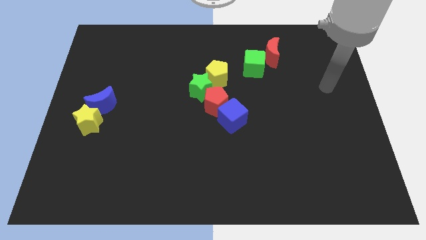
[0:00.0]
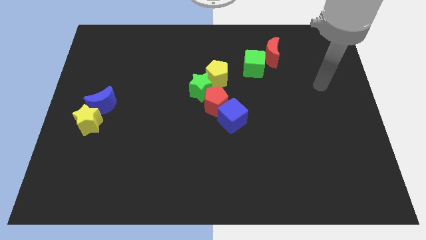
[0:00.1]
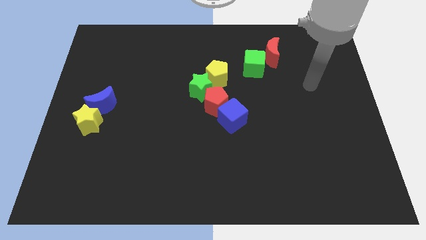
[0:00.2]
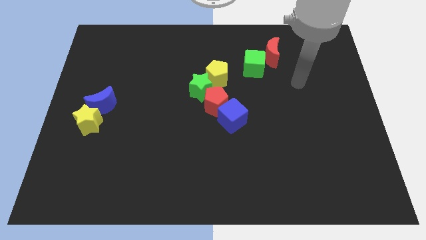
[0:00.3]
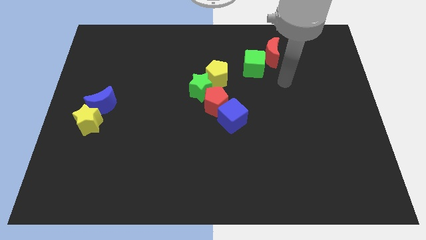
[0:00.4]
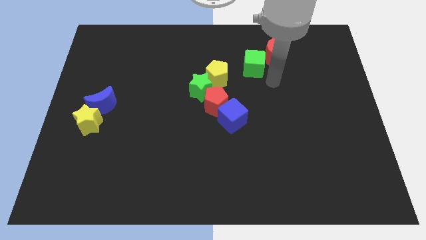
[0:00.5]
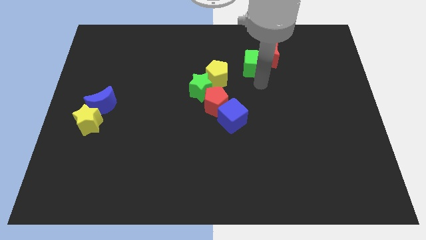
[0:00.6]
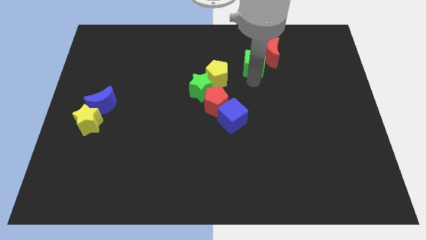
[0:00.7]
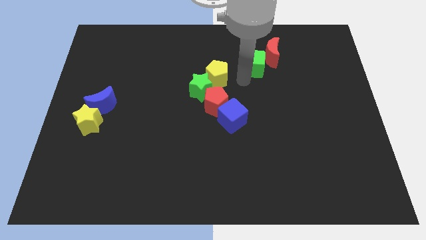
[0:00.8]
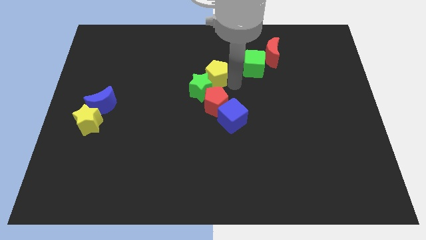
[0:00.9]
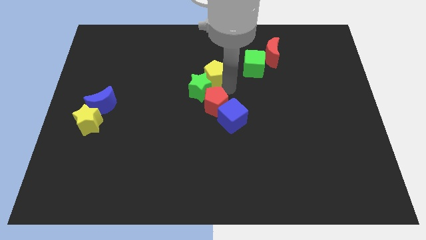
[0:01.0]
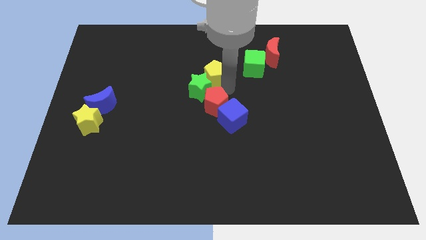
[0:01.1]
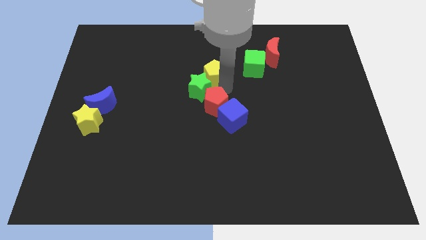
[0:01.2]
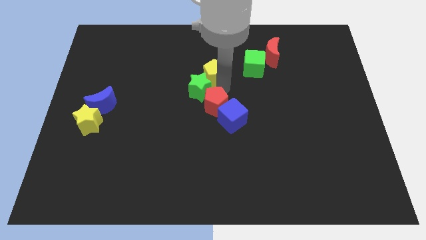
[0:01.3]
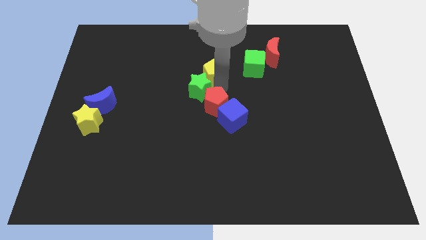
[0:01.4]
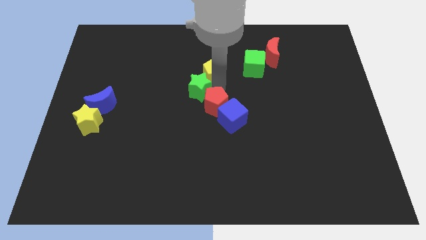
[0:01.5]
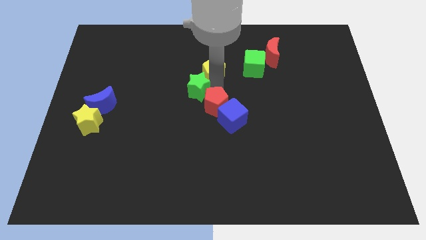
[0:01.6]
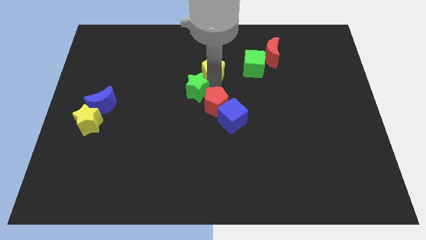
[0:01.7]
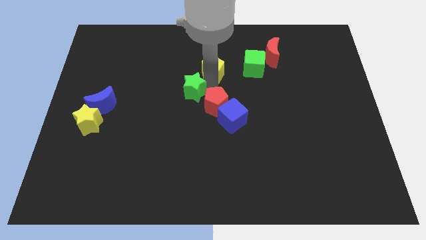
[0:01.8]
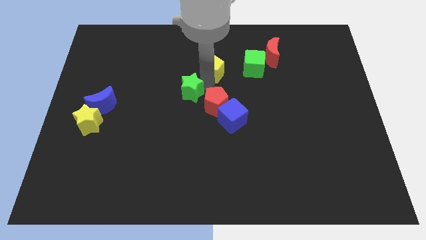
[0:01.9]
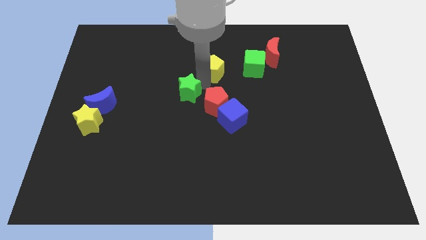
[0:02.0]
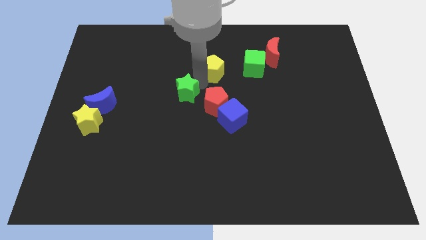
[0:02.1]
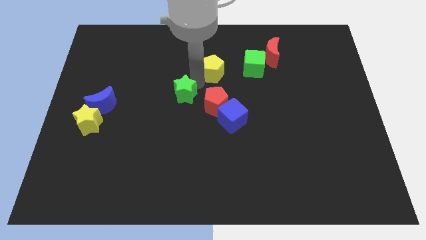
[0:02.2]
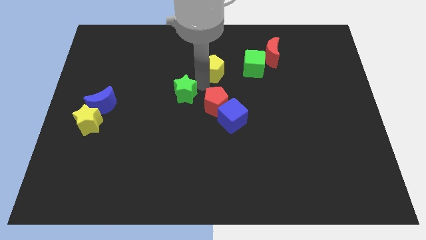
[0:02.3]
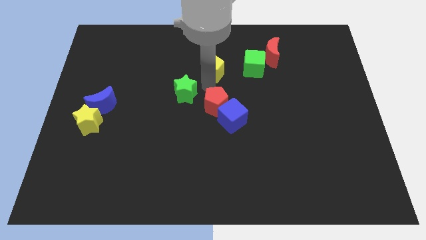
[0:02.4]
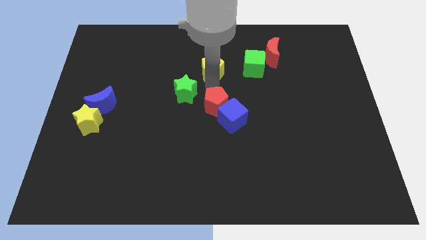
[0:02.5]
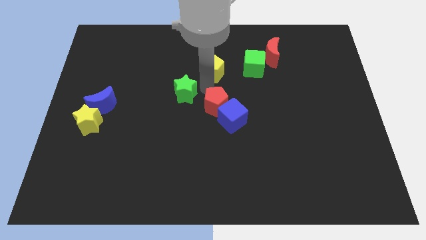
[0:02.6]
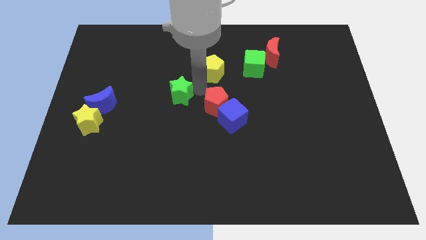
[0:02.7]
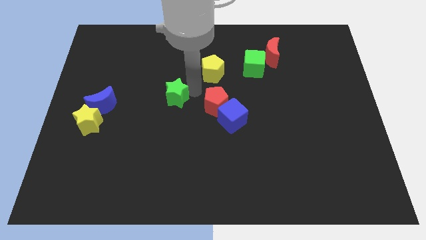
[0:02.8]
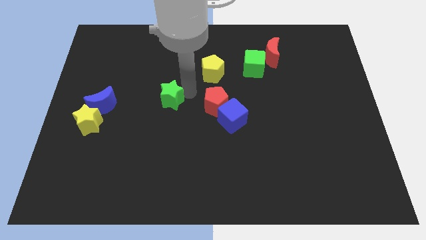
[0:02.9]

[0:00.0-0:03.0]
separate the green star from the red pentagon and yellow pentagon

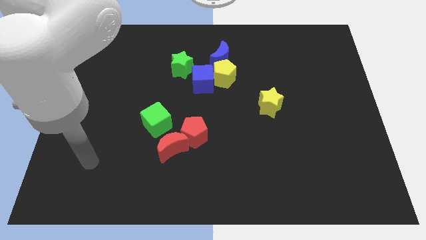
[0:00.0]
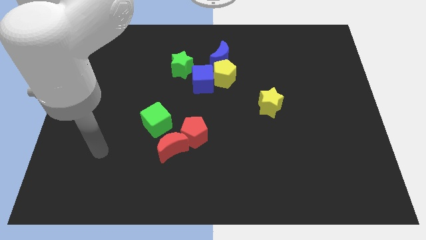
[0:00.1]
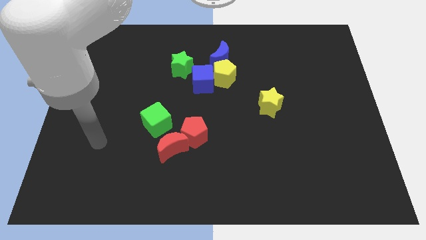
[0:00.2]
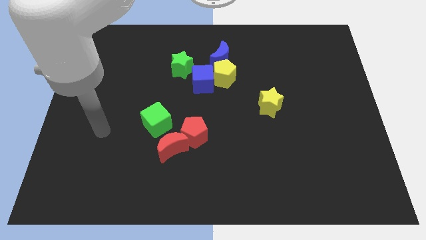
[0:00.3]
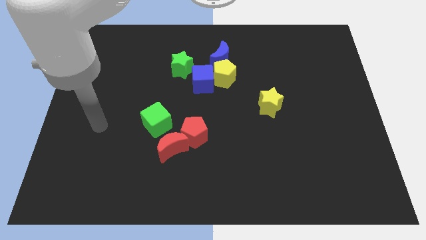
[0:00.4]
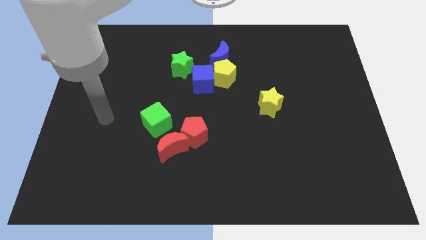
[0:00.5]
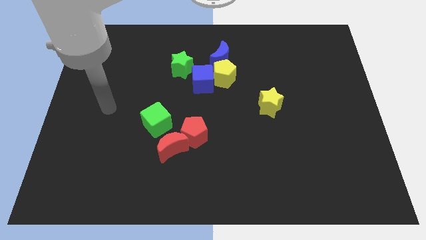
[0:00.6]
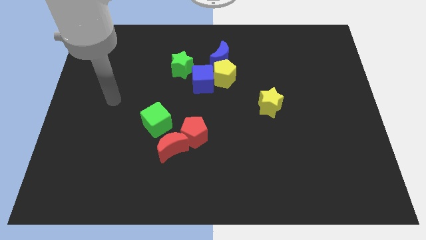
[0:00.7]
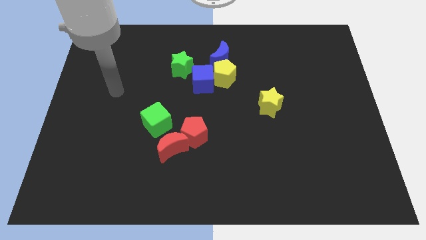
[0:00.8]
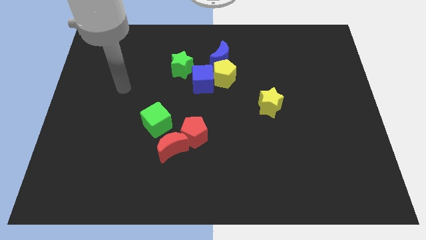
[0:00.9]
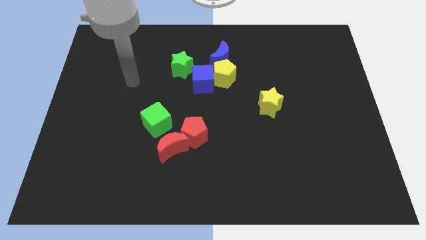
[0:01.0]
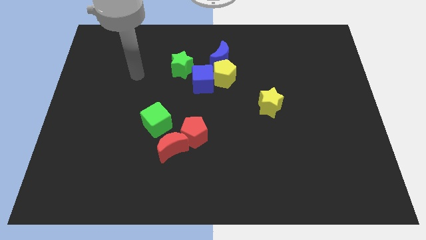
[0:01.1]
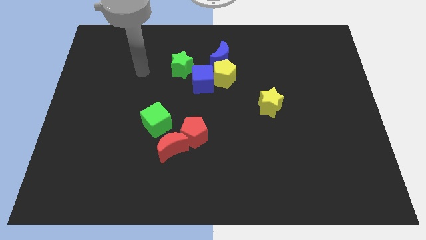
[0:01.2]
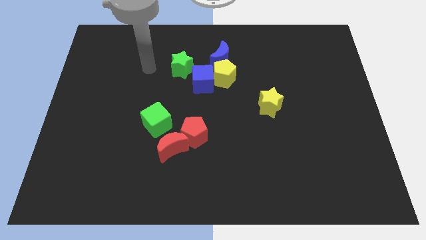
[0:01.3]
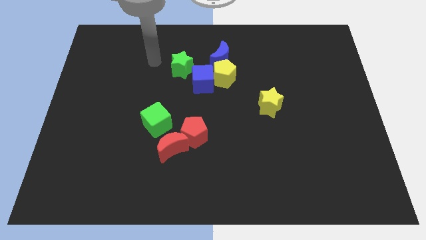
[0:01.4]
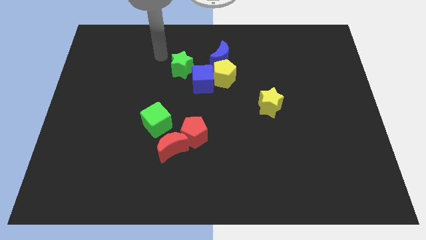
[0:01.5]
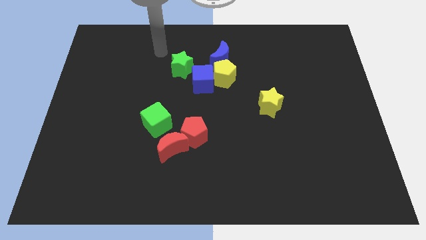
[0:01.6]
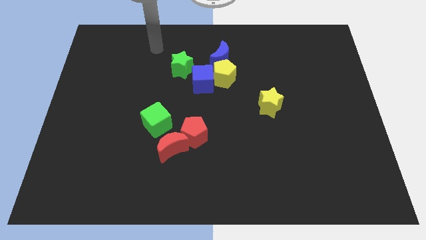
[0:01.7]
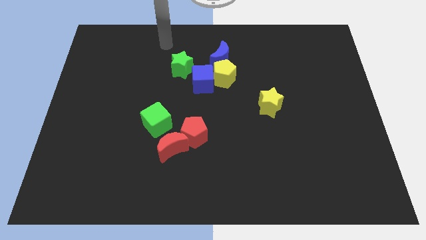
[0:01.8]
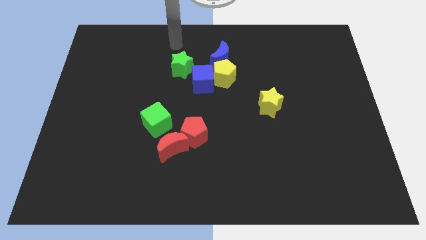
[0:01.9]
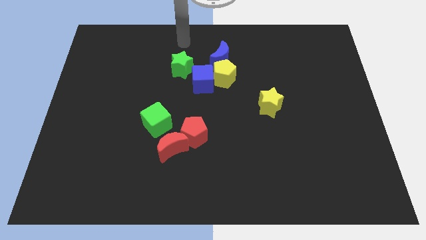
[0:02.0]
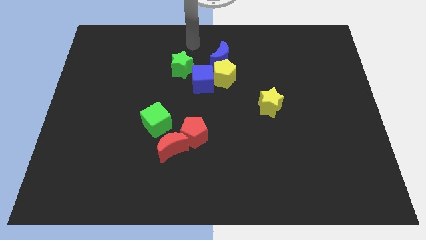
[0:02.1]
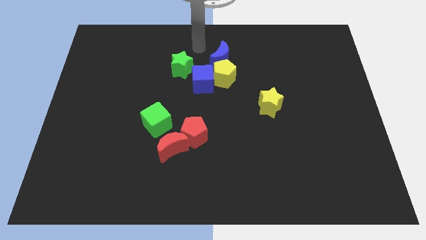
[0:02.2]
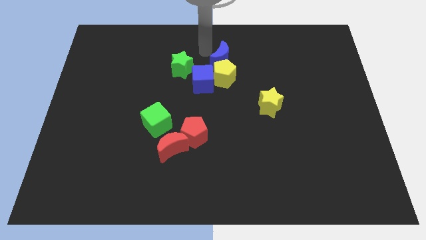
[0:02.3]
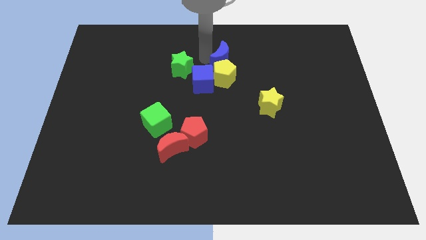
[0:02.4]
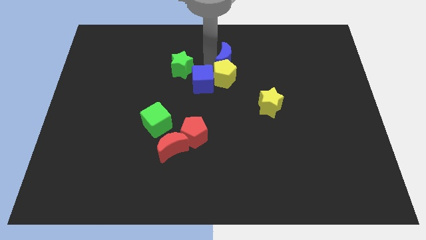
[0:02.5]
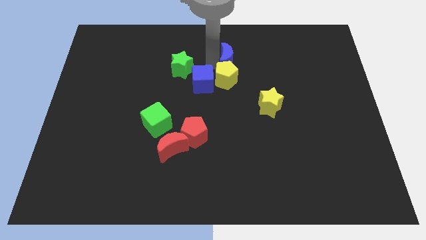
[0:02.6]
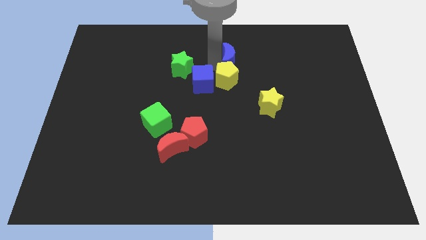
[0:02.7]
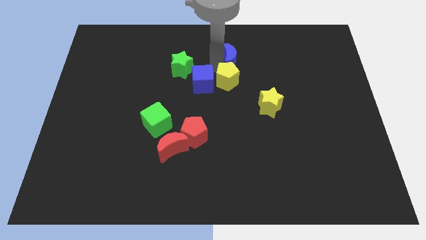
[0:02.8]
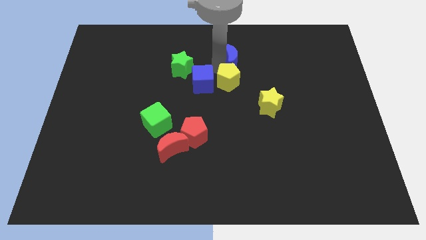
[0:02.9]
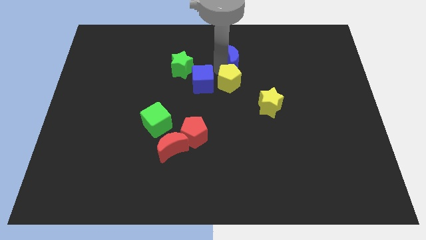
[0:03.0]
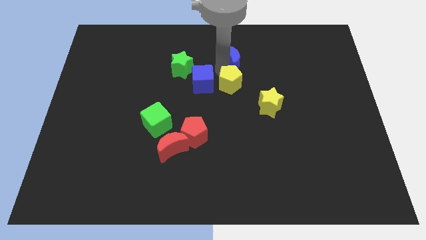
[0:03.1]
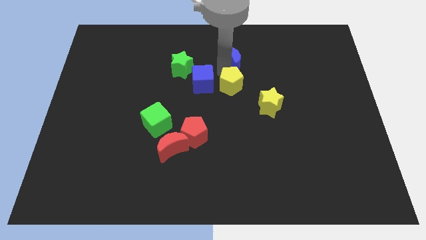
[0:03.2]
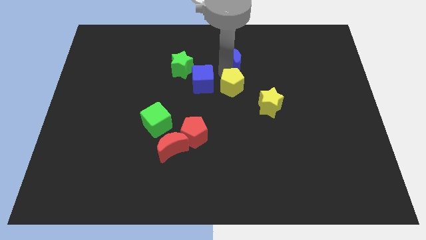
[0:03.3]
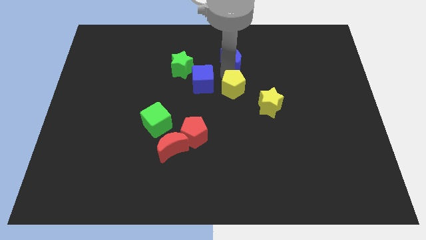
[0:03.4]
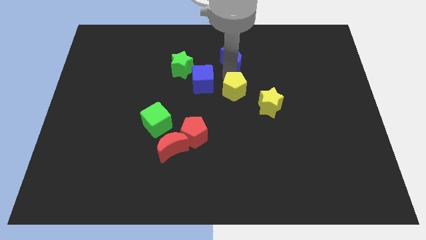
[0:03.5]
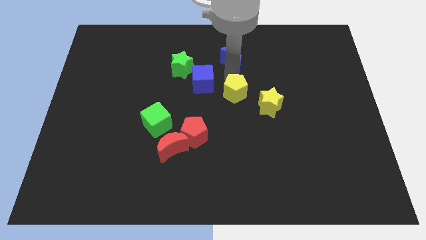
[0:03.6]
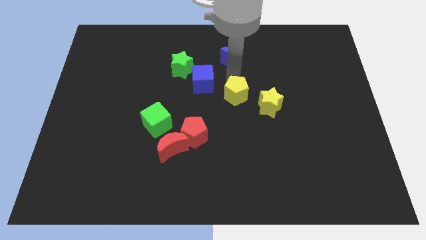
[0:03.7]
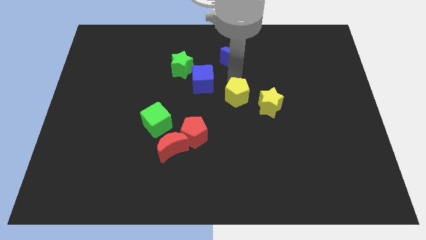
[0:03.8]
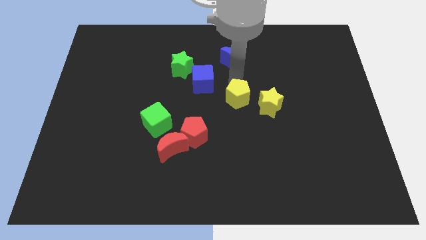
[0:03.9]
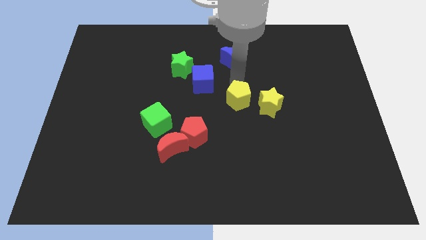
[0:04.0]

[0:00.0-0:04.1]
pull the yellow pentagon apart from the blue cube and blue moon

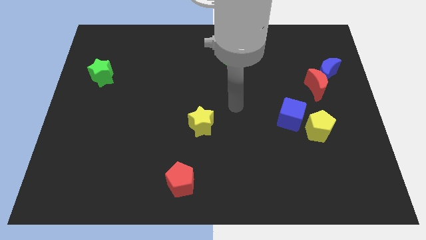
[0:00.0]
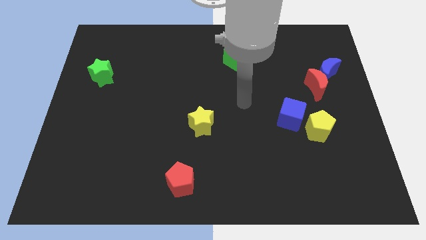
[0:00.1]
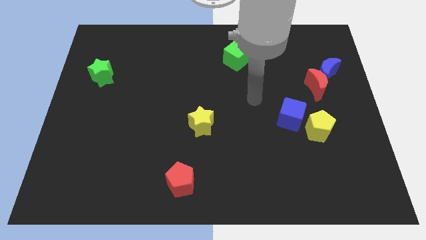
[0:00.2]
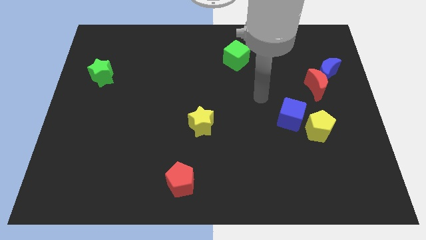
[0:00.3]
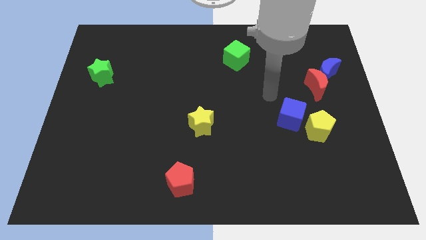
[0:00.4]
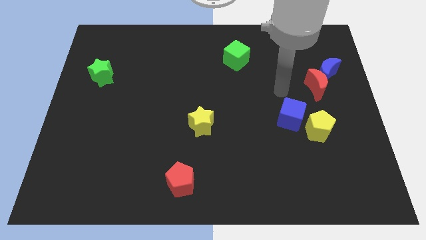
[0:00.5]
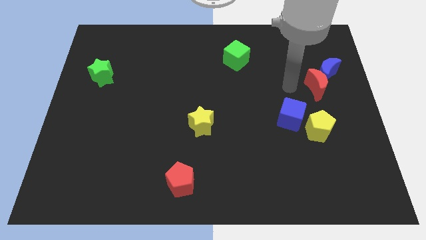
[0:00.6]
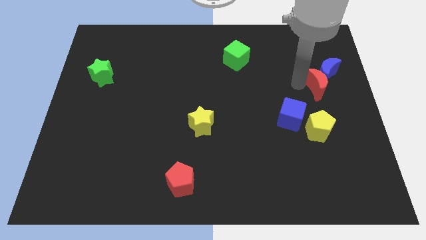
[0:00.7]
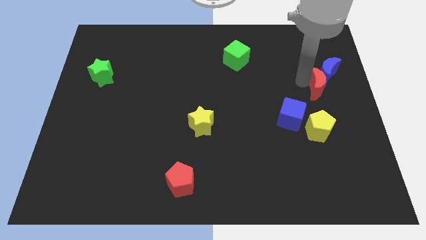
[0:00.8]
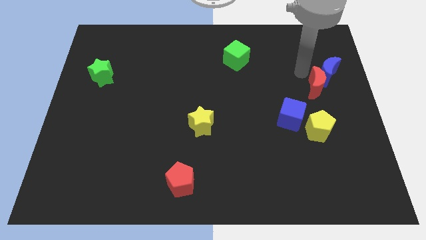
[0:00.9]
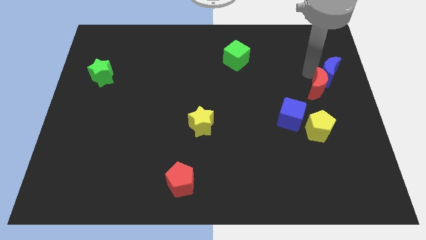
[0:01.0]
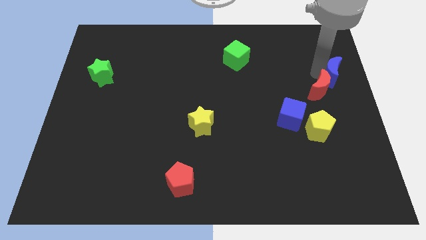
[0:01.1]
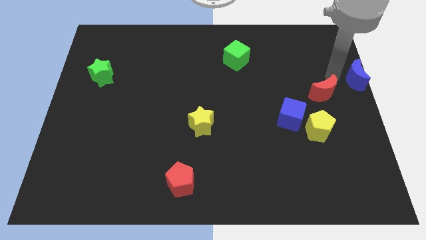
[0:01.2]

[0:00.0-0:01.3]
separate the red moon from the blue moon

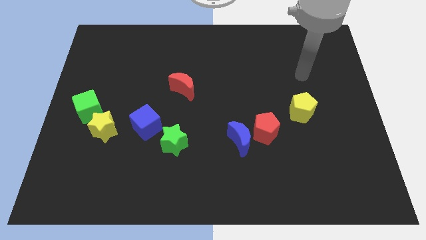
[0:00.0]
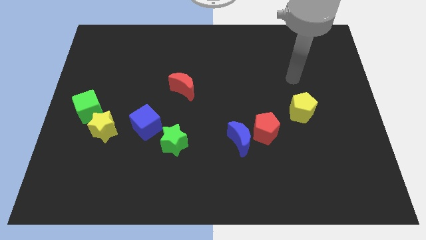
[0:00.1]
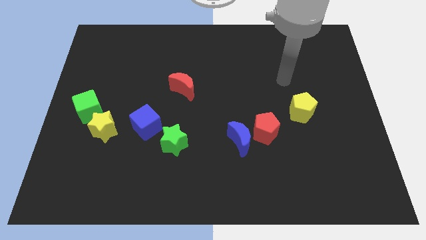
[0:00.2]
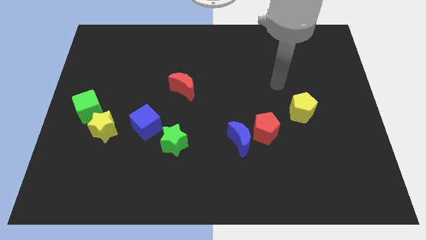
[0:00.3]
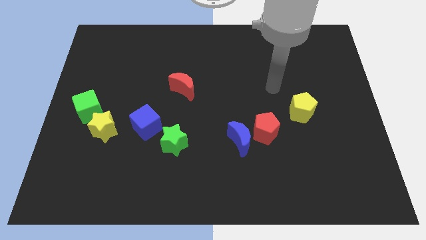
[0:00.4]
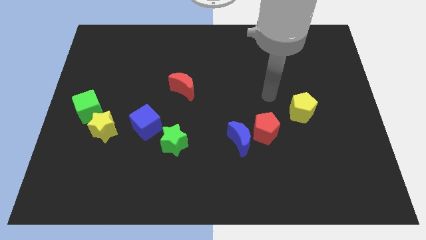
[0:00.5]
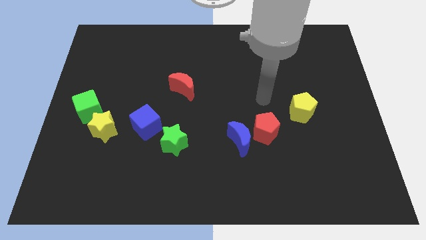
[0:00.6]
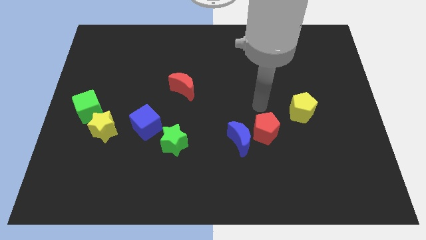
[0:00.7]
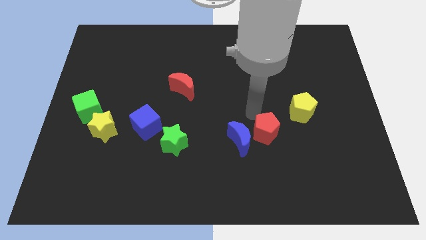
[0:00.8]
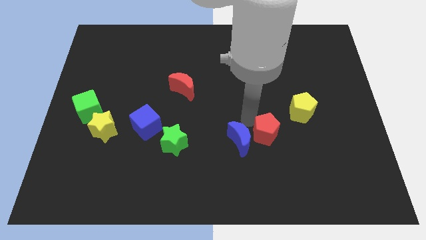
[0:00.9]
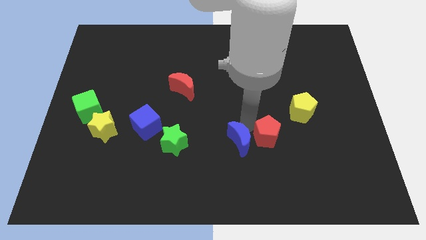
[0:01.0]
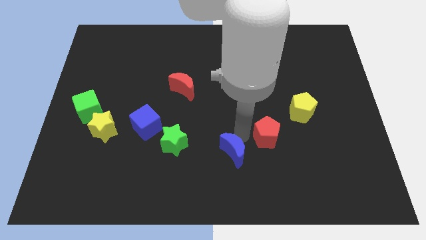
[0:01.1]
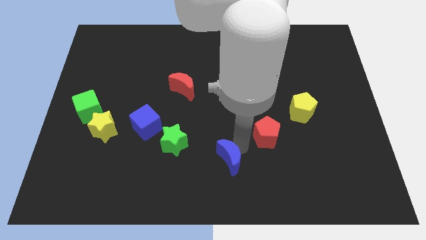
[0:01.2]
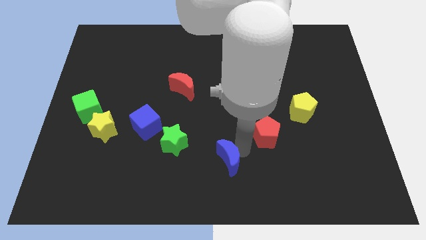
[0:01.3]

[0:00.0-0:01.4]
pull the red pentagon apart from the blue moon
